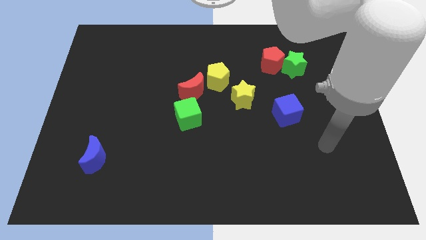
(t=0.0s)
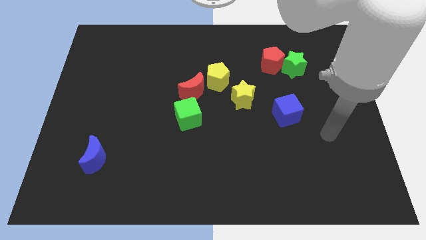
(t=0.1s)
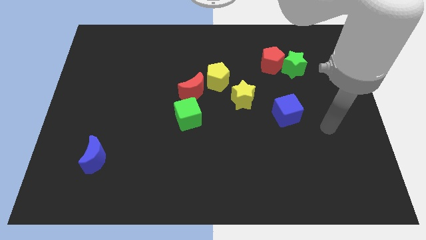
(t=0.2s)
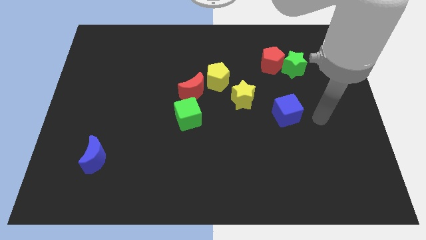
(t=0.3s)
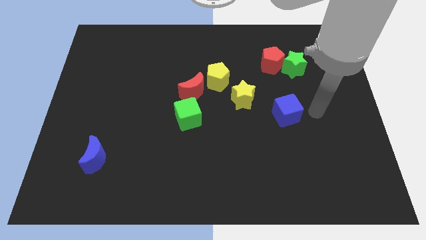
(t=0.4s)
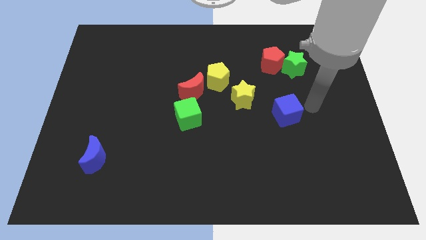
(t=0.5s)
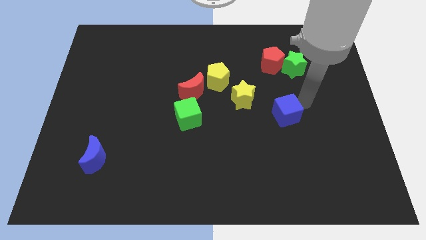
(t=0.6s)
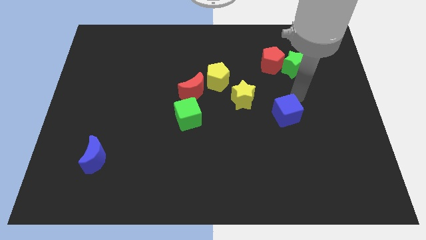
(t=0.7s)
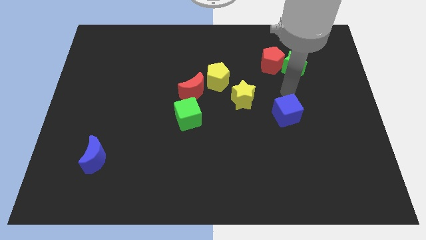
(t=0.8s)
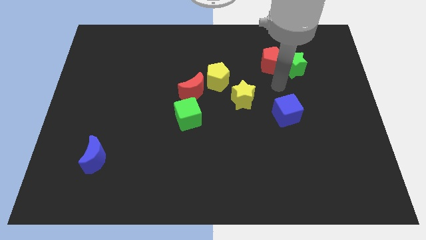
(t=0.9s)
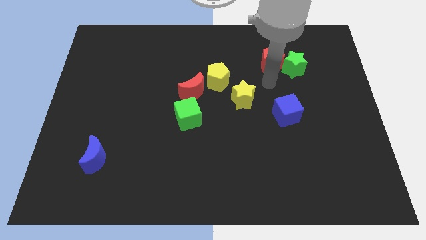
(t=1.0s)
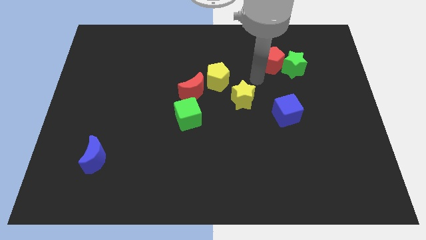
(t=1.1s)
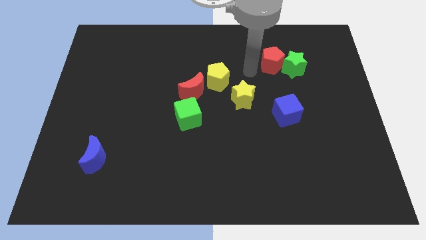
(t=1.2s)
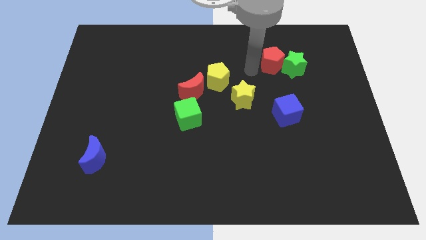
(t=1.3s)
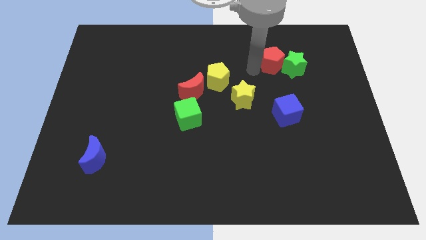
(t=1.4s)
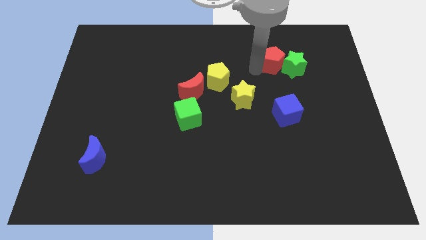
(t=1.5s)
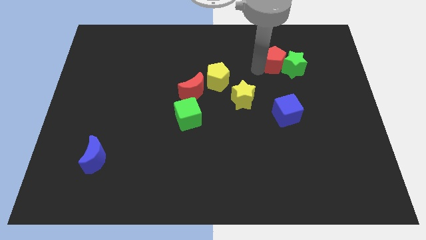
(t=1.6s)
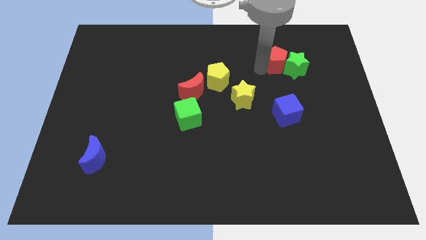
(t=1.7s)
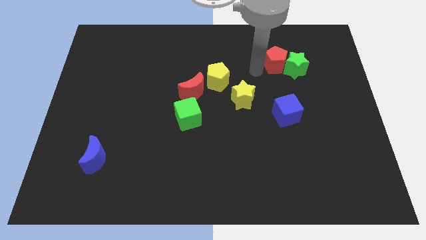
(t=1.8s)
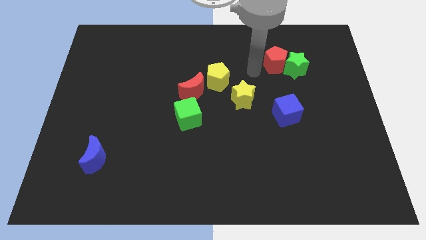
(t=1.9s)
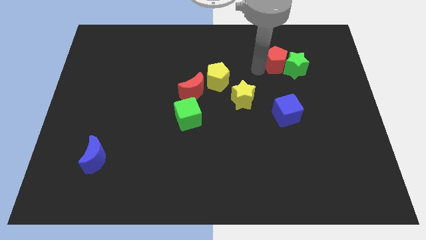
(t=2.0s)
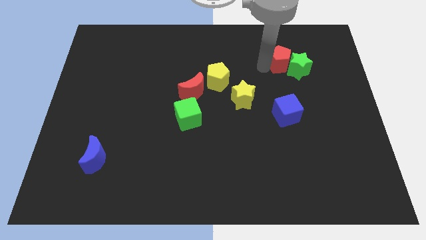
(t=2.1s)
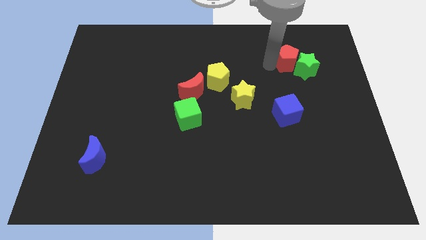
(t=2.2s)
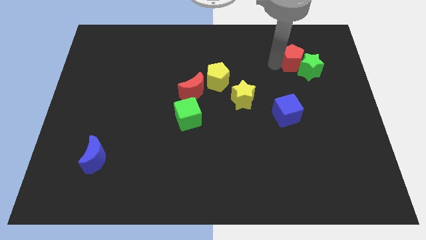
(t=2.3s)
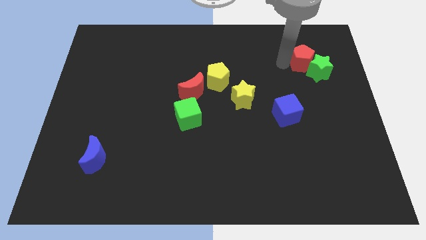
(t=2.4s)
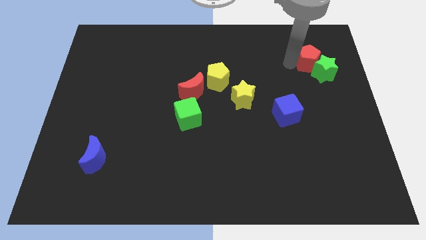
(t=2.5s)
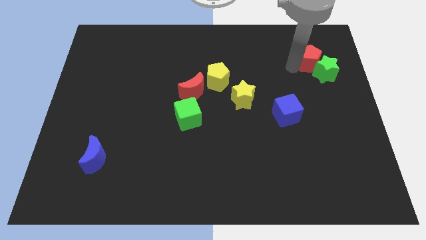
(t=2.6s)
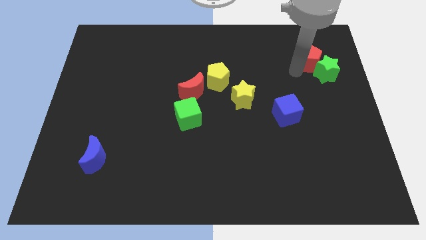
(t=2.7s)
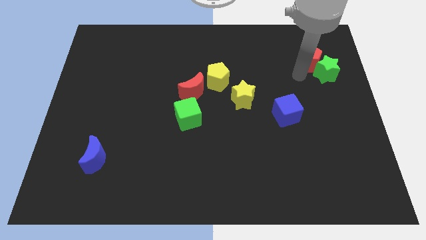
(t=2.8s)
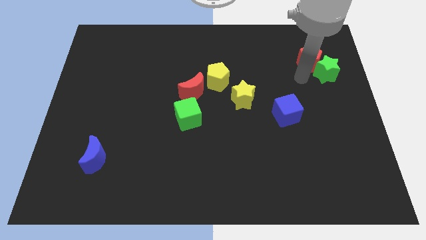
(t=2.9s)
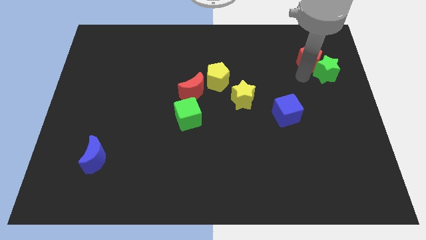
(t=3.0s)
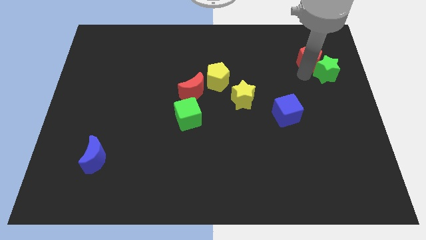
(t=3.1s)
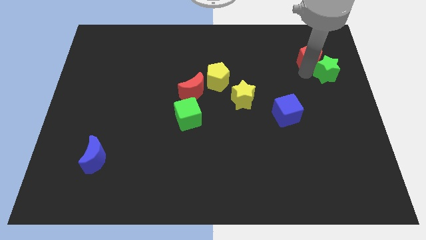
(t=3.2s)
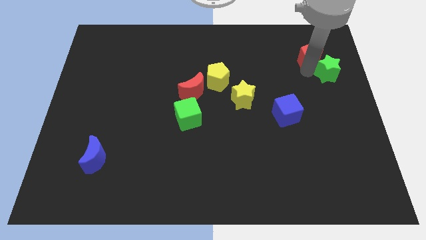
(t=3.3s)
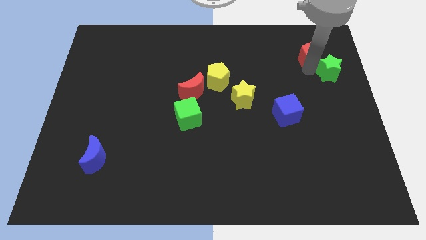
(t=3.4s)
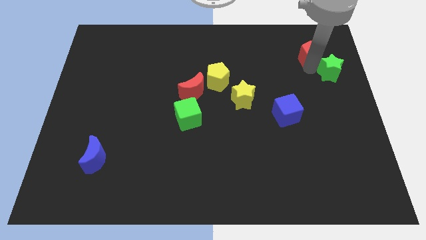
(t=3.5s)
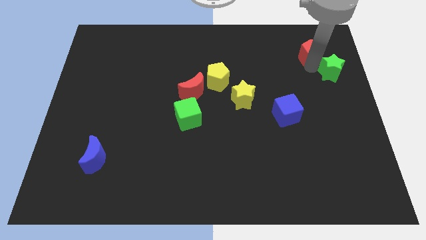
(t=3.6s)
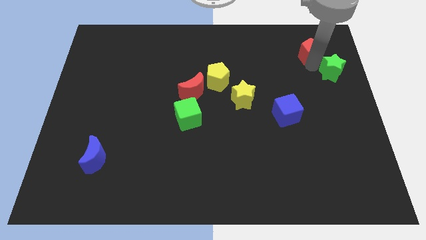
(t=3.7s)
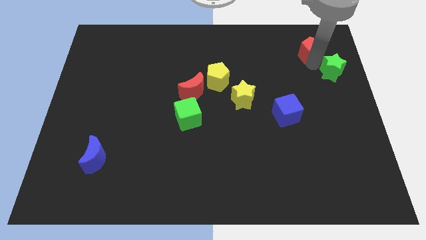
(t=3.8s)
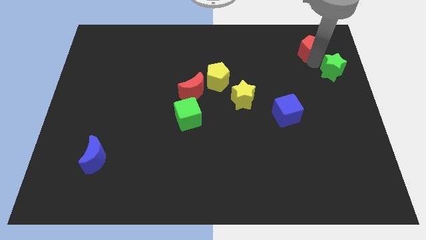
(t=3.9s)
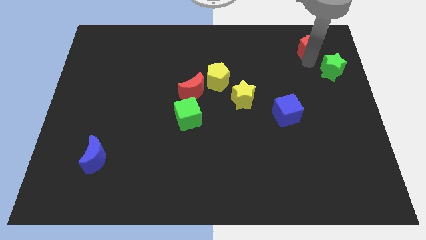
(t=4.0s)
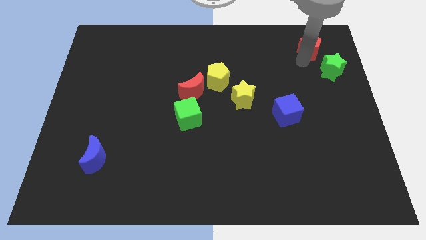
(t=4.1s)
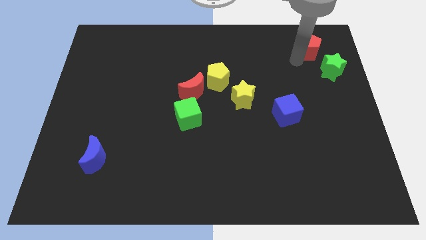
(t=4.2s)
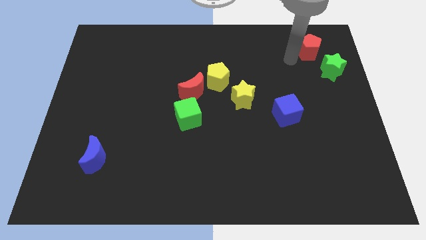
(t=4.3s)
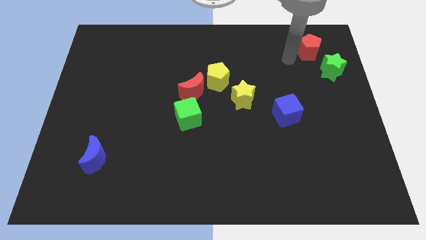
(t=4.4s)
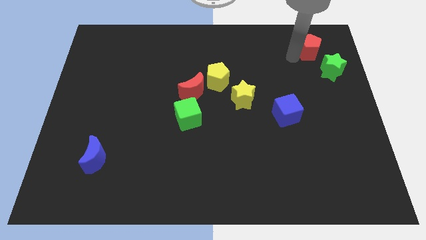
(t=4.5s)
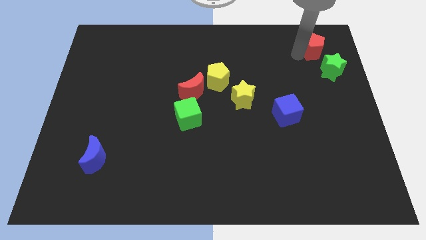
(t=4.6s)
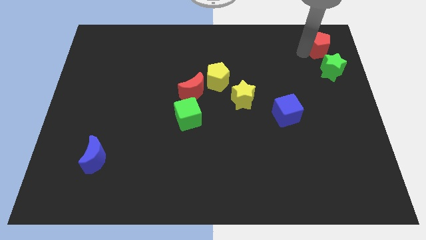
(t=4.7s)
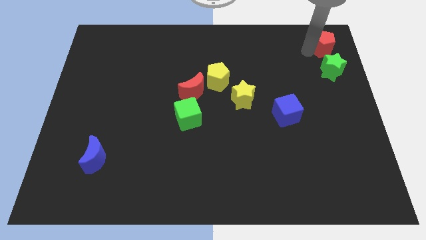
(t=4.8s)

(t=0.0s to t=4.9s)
put the red pentagon to the upper right corner

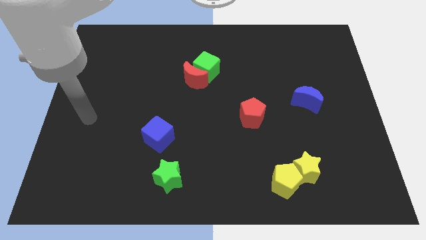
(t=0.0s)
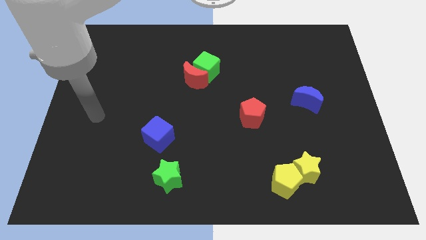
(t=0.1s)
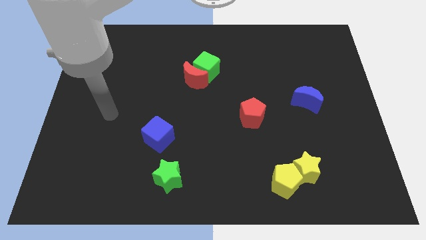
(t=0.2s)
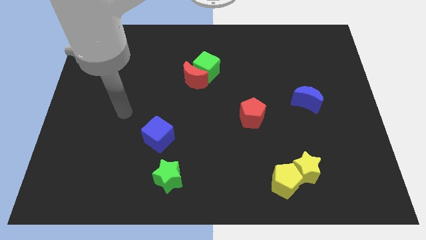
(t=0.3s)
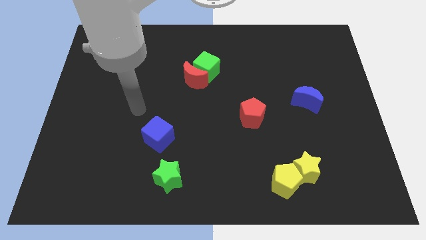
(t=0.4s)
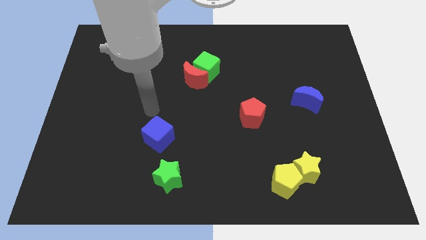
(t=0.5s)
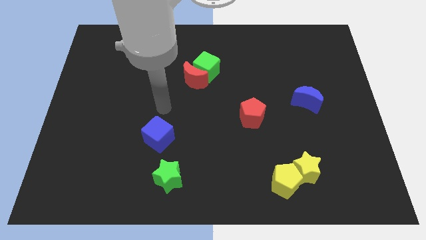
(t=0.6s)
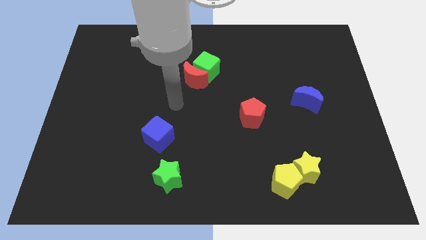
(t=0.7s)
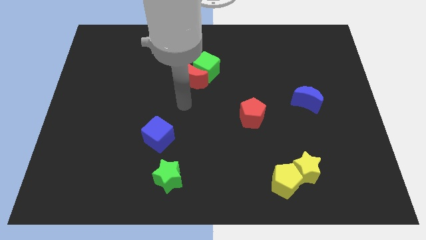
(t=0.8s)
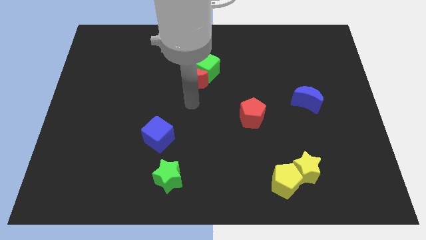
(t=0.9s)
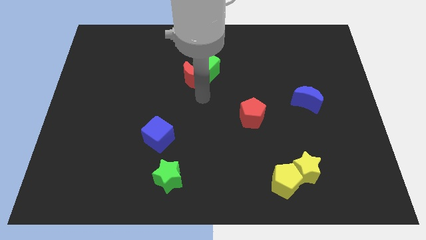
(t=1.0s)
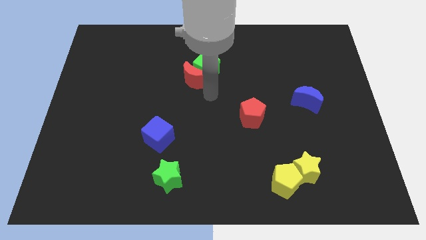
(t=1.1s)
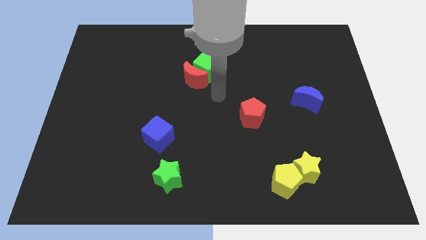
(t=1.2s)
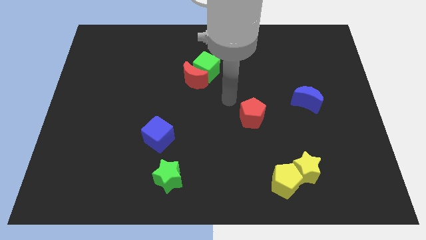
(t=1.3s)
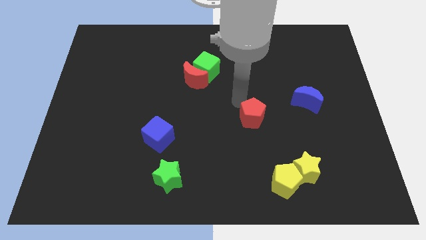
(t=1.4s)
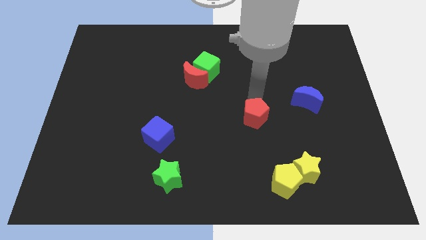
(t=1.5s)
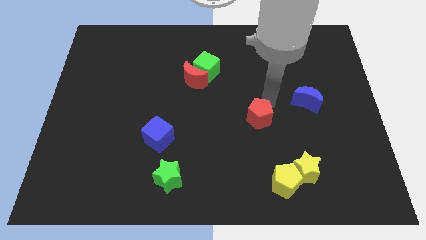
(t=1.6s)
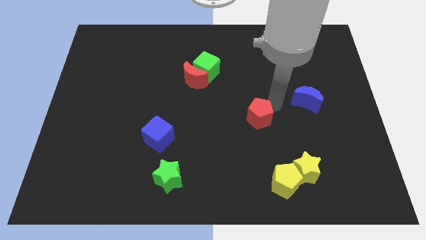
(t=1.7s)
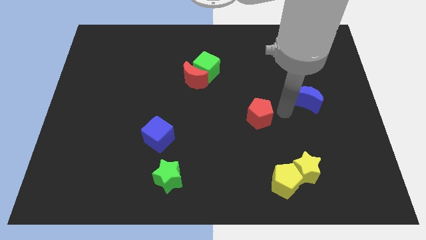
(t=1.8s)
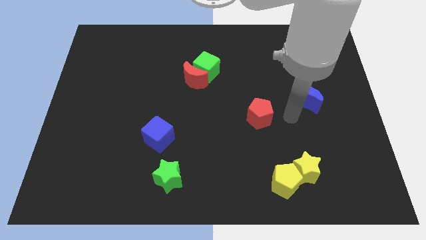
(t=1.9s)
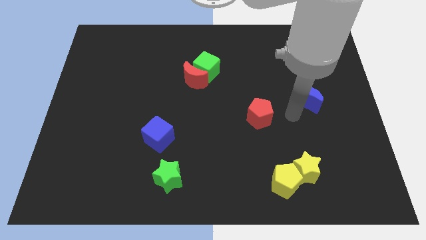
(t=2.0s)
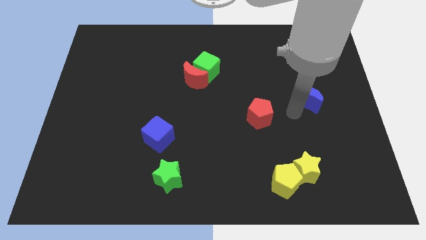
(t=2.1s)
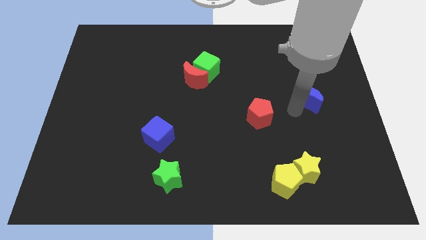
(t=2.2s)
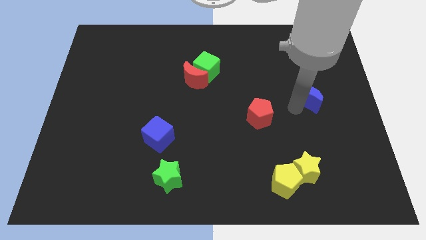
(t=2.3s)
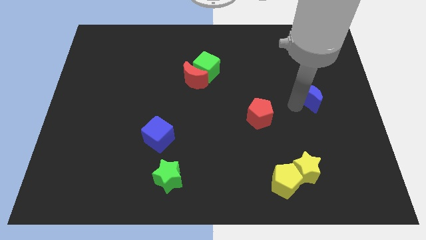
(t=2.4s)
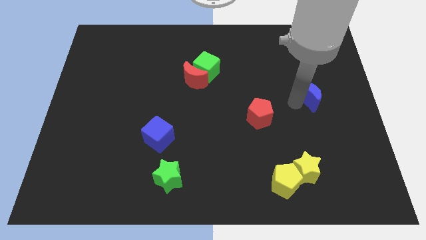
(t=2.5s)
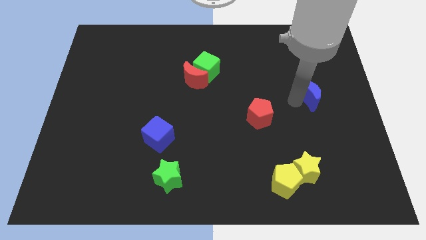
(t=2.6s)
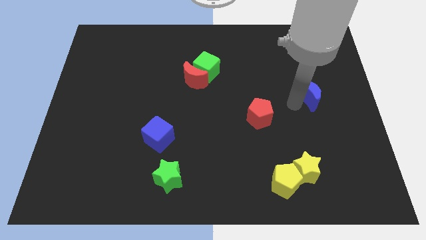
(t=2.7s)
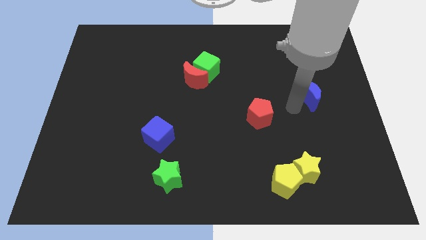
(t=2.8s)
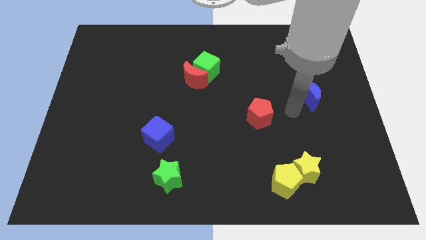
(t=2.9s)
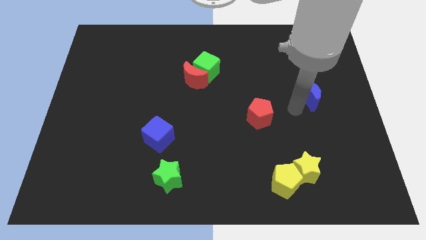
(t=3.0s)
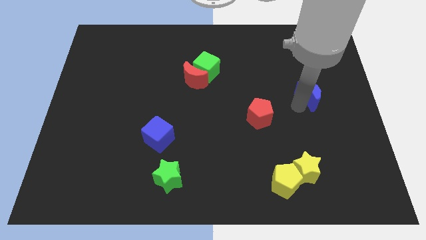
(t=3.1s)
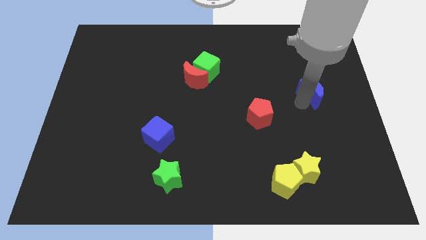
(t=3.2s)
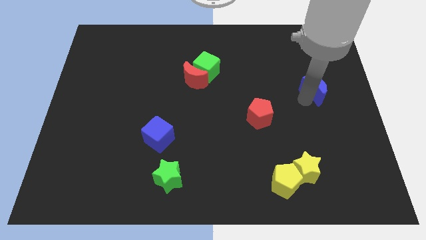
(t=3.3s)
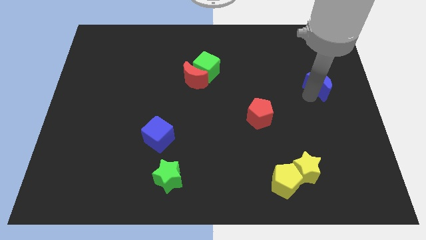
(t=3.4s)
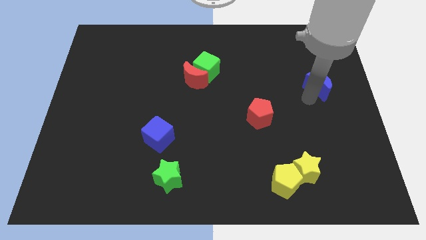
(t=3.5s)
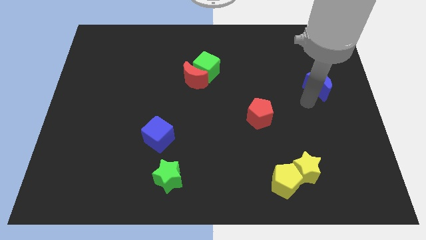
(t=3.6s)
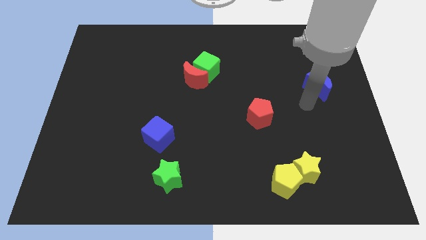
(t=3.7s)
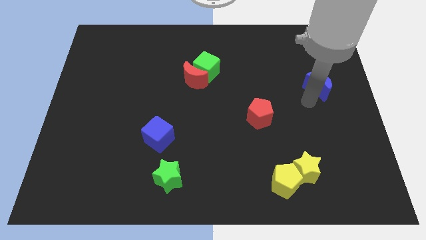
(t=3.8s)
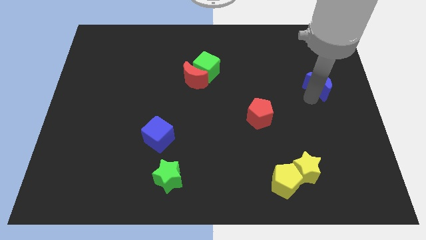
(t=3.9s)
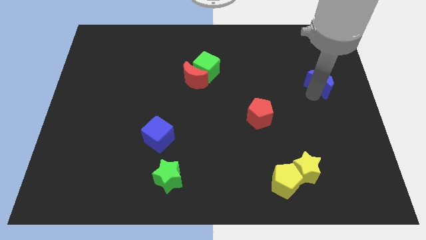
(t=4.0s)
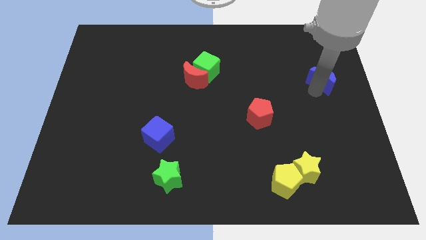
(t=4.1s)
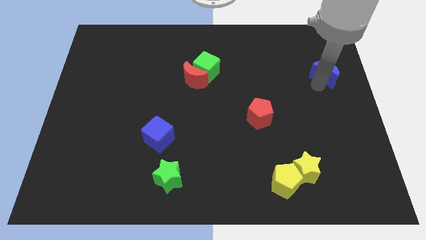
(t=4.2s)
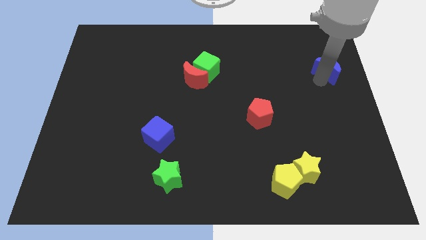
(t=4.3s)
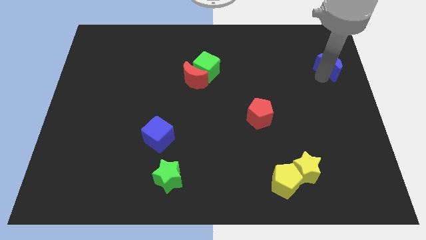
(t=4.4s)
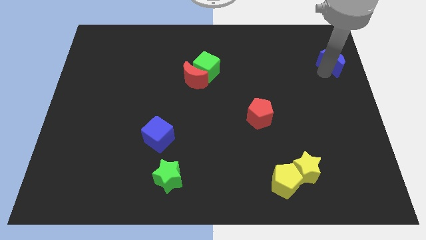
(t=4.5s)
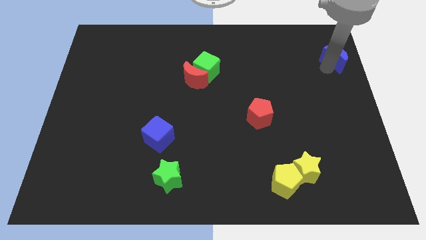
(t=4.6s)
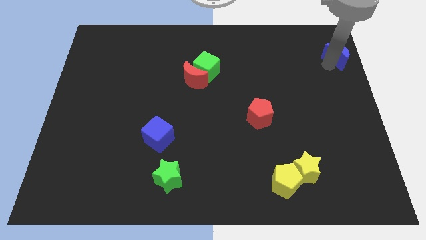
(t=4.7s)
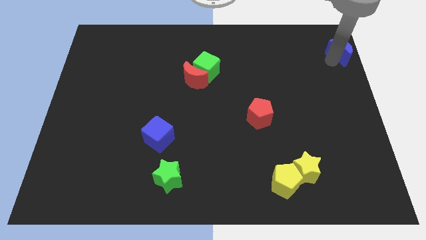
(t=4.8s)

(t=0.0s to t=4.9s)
put the blue moon to the top right
